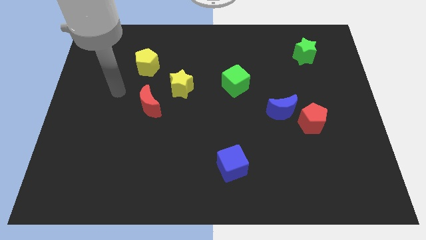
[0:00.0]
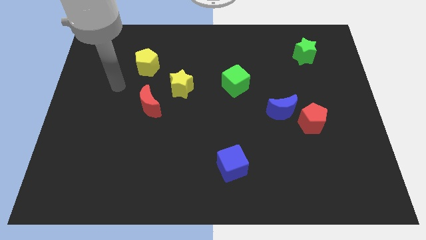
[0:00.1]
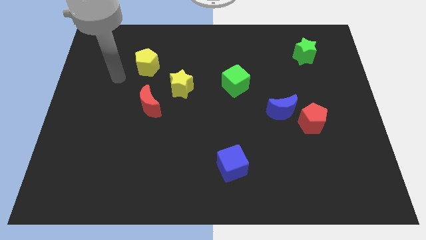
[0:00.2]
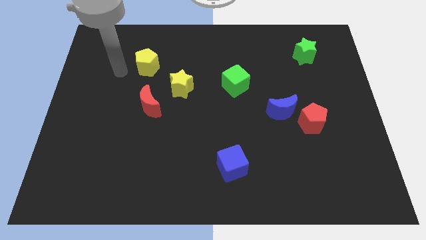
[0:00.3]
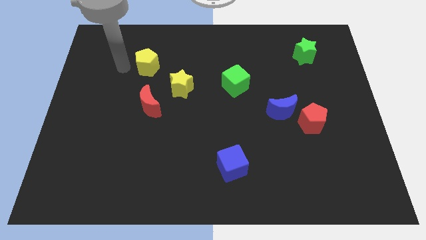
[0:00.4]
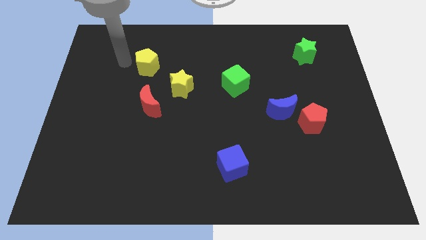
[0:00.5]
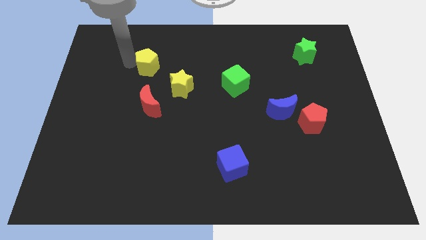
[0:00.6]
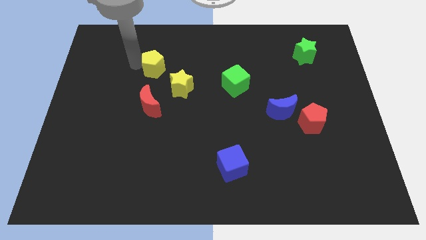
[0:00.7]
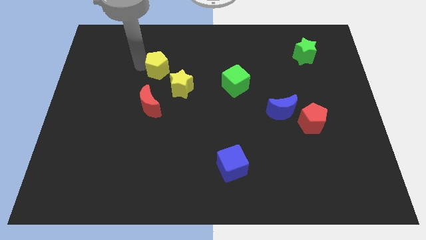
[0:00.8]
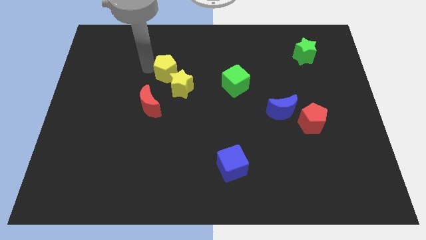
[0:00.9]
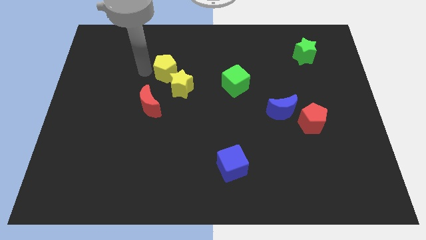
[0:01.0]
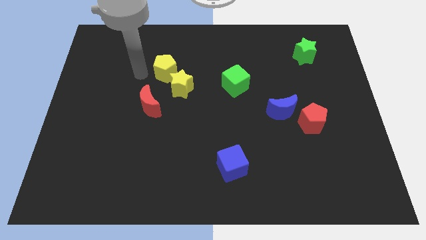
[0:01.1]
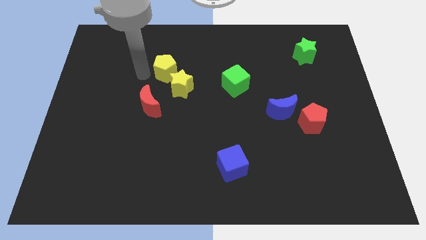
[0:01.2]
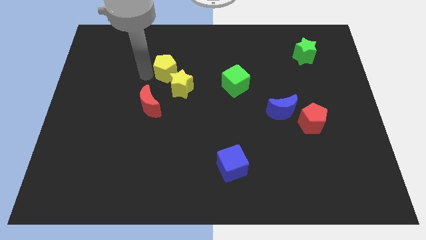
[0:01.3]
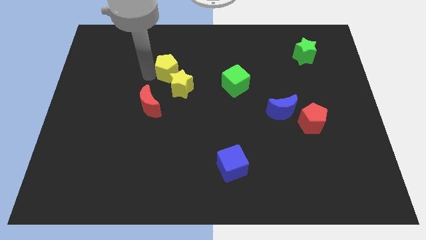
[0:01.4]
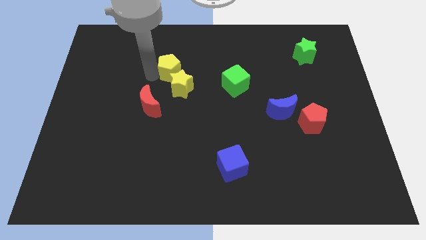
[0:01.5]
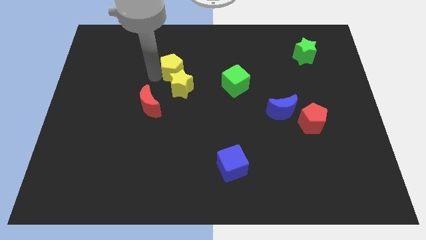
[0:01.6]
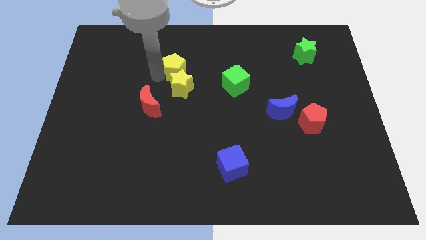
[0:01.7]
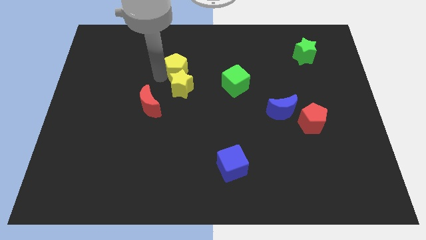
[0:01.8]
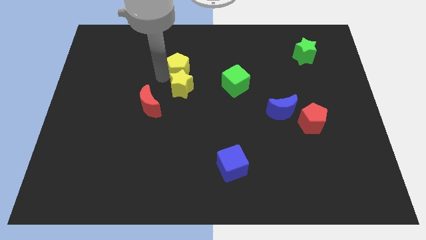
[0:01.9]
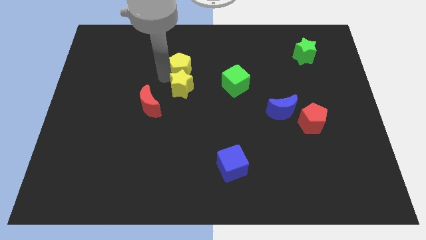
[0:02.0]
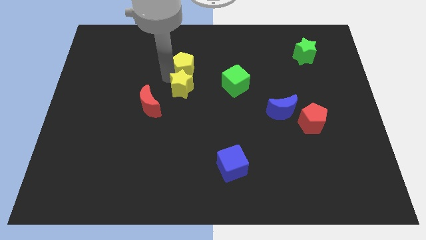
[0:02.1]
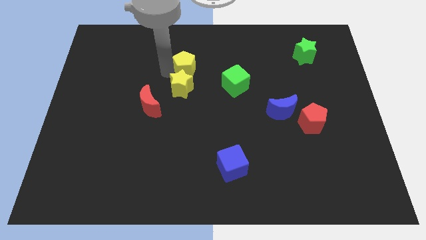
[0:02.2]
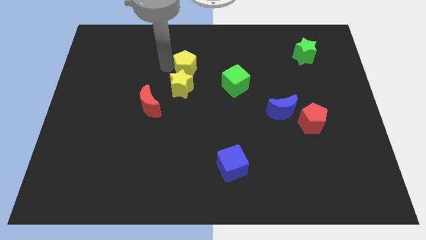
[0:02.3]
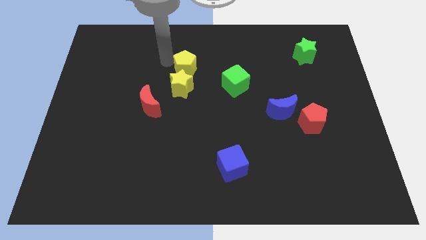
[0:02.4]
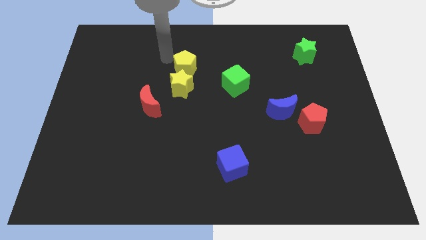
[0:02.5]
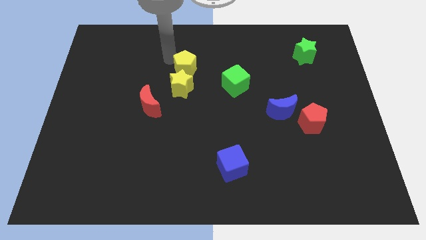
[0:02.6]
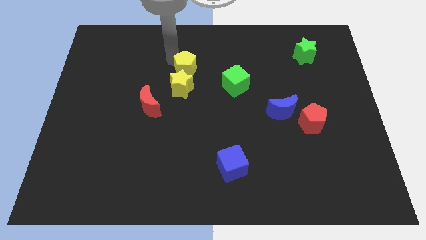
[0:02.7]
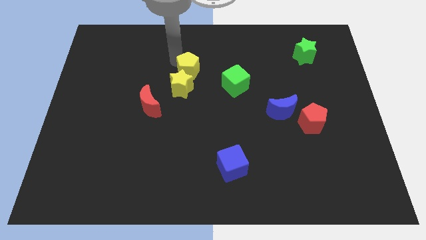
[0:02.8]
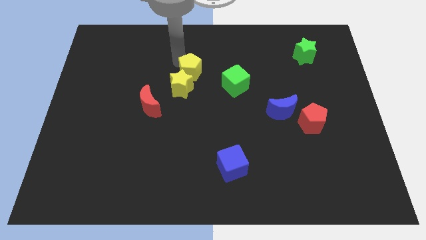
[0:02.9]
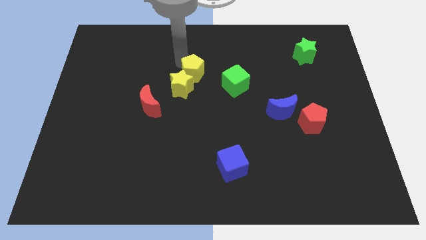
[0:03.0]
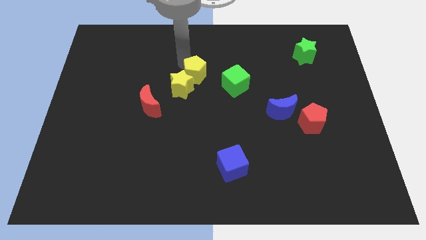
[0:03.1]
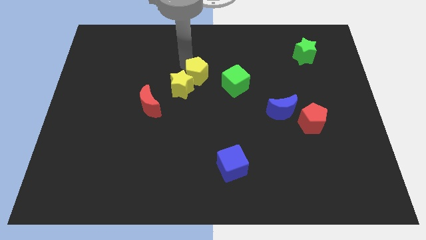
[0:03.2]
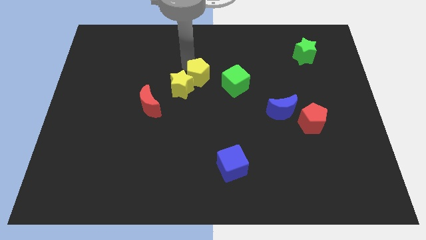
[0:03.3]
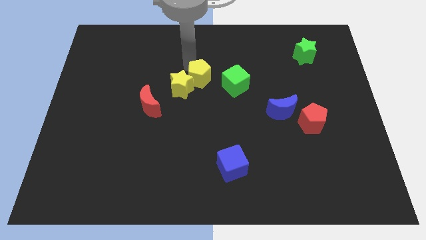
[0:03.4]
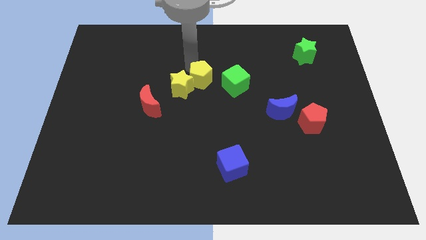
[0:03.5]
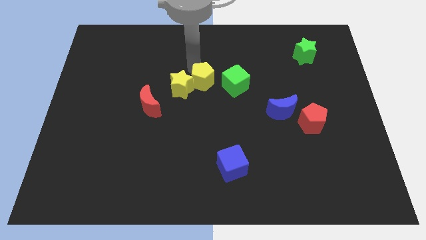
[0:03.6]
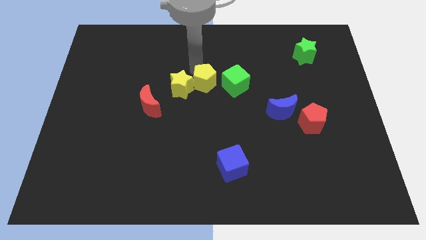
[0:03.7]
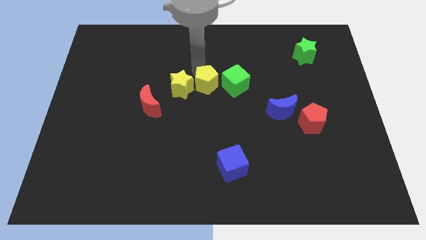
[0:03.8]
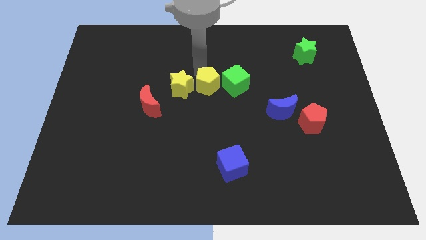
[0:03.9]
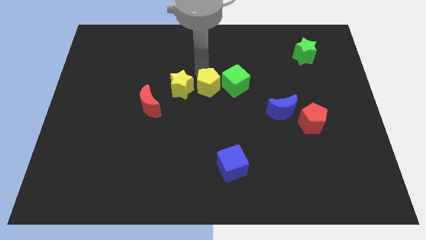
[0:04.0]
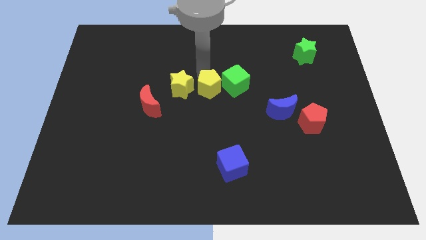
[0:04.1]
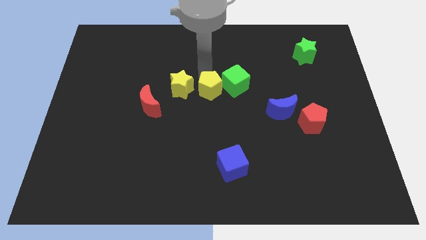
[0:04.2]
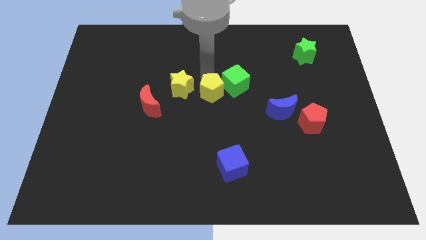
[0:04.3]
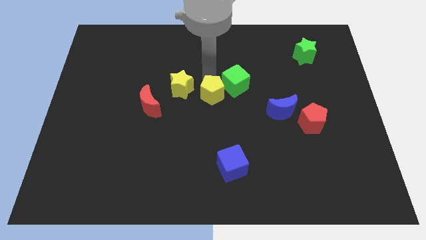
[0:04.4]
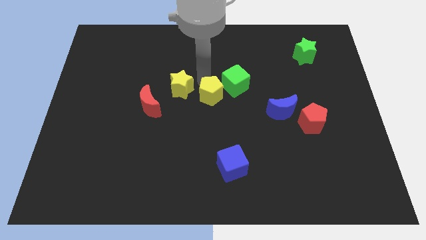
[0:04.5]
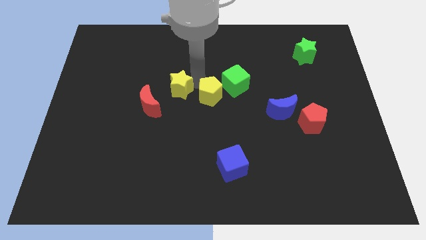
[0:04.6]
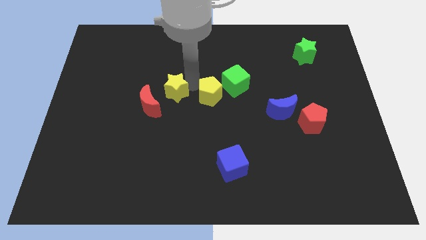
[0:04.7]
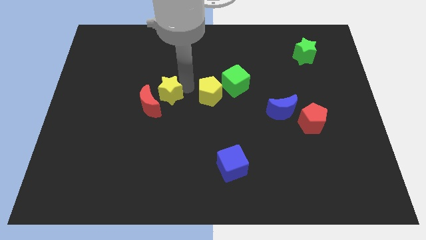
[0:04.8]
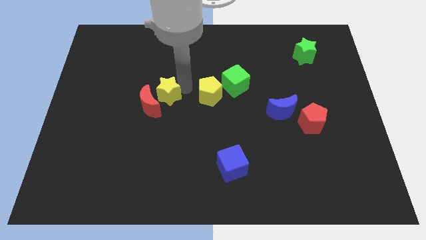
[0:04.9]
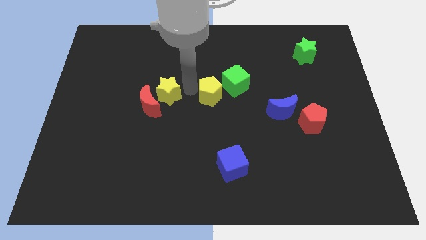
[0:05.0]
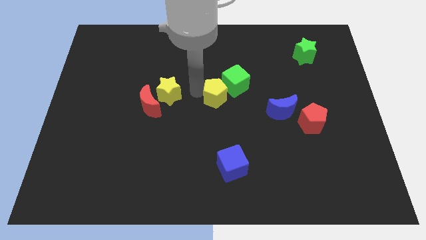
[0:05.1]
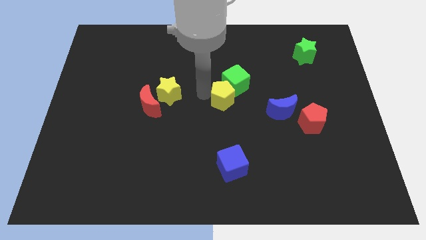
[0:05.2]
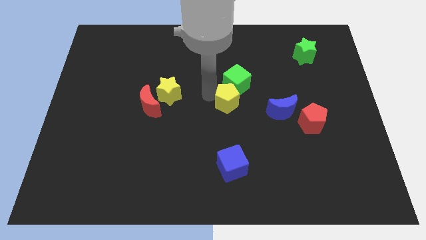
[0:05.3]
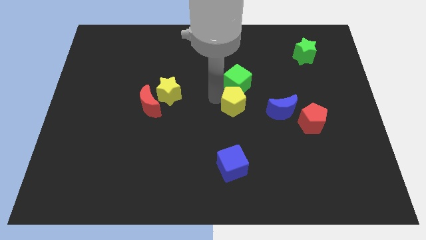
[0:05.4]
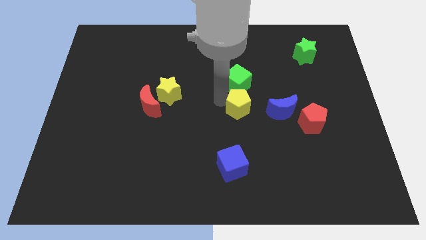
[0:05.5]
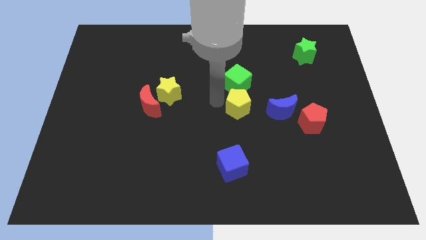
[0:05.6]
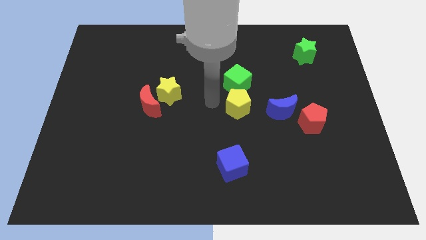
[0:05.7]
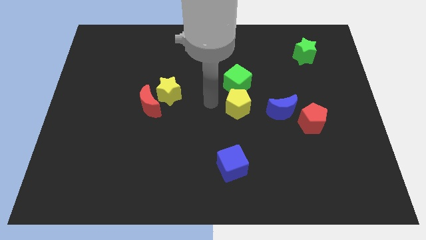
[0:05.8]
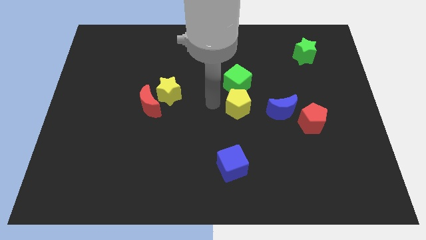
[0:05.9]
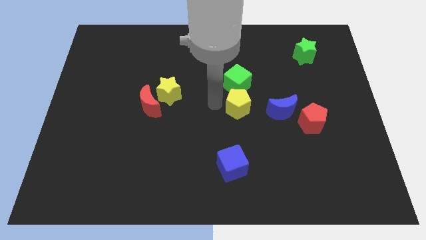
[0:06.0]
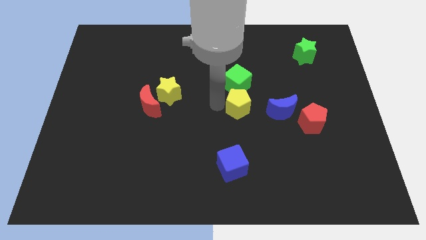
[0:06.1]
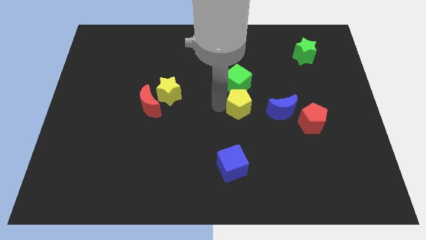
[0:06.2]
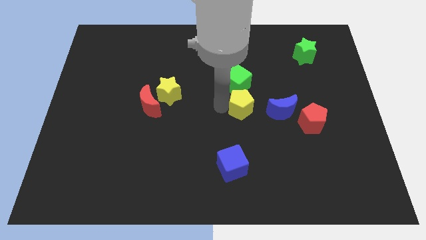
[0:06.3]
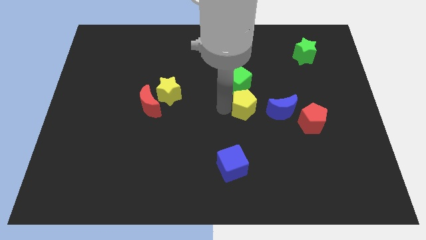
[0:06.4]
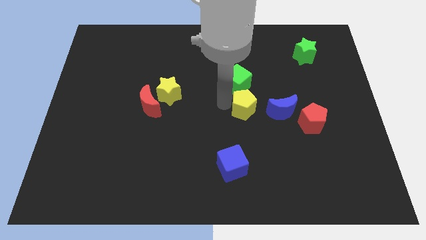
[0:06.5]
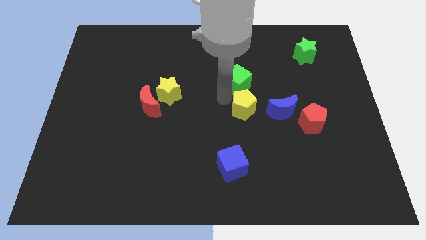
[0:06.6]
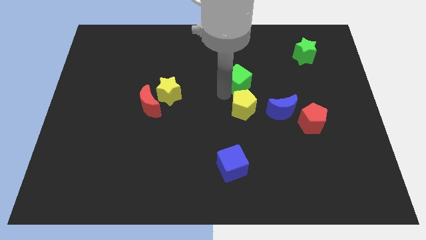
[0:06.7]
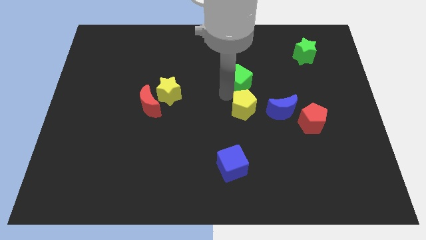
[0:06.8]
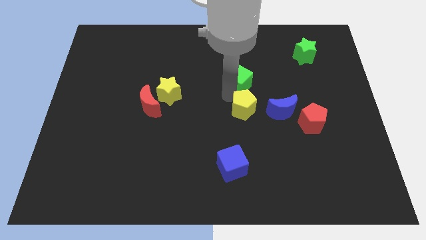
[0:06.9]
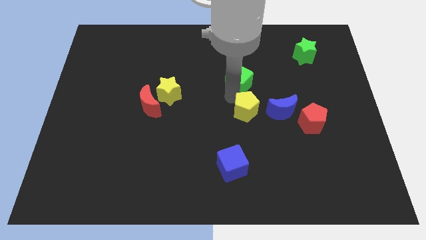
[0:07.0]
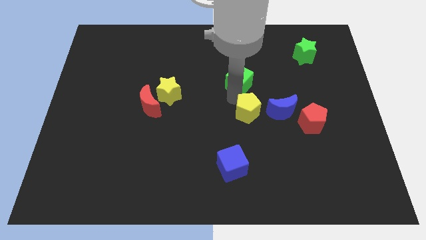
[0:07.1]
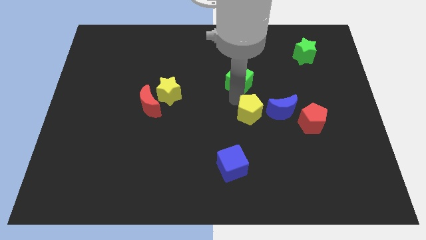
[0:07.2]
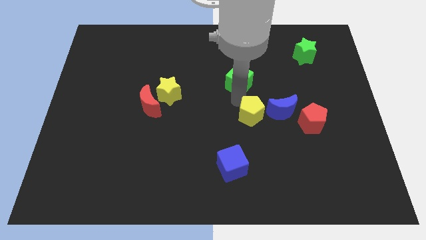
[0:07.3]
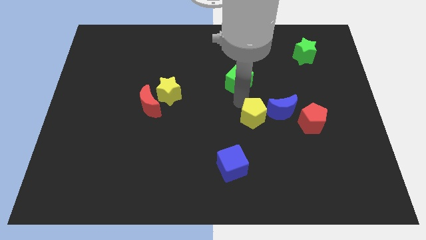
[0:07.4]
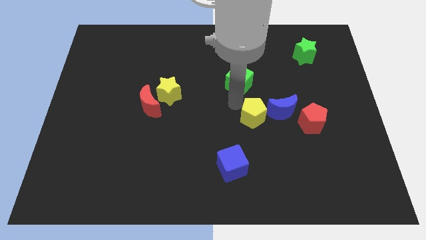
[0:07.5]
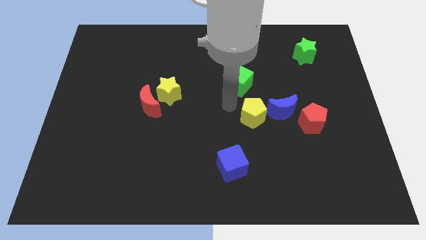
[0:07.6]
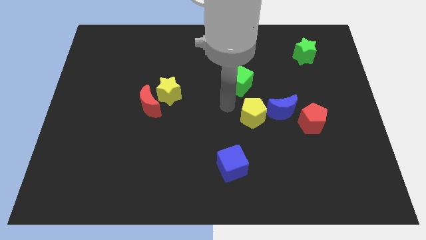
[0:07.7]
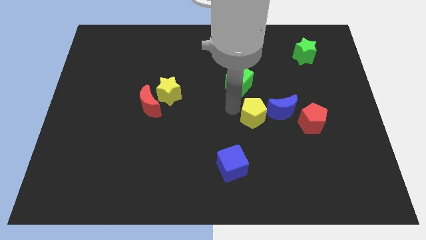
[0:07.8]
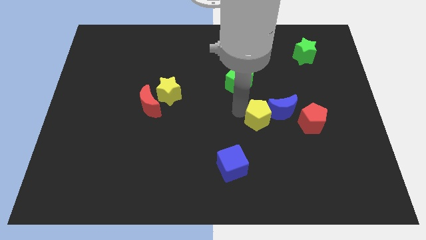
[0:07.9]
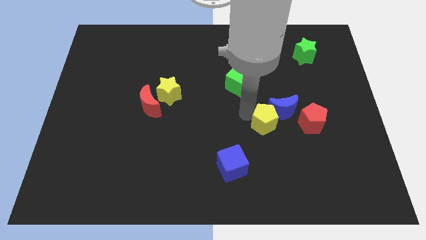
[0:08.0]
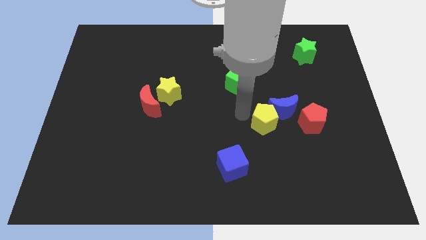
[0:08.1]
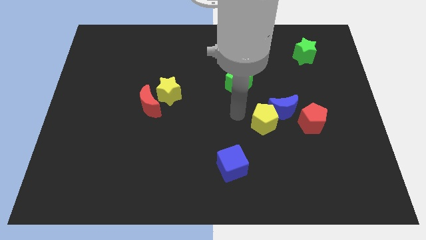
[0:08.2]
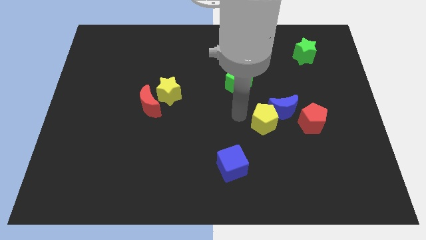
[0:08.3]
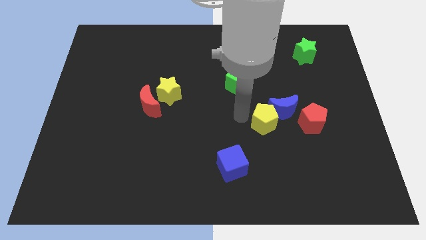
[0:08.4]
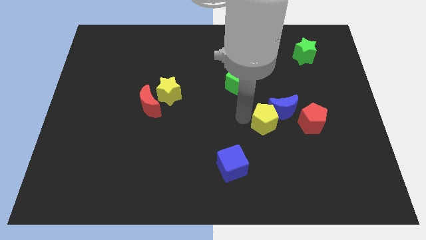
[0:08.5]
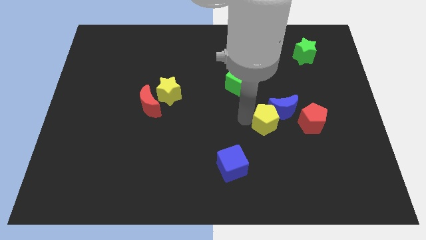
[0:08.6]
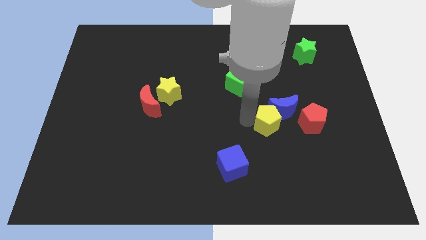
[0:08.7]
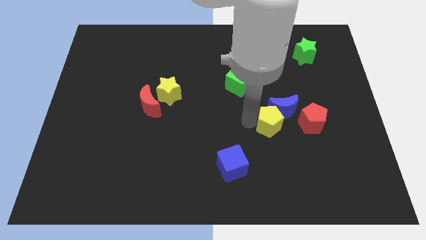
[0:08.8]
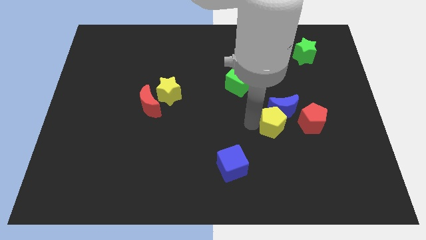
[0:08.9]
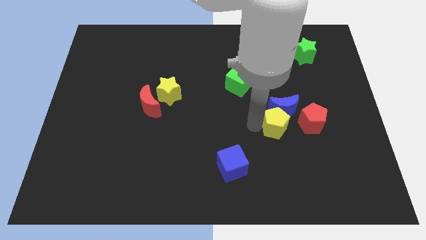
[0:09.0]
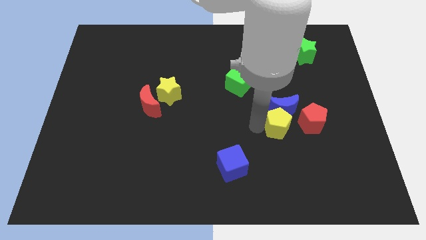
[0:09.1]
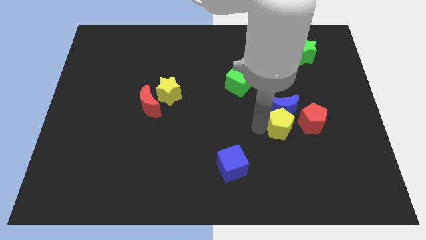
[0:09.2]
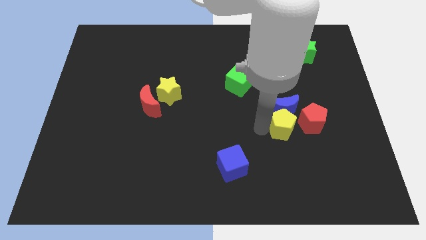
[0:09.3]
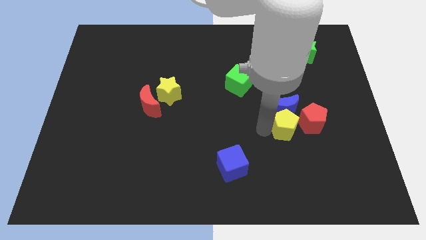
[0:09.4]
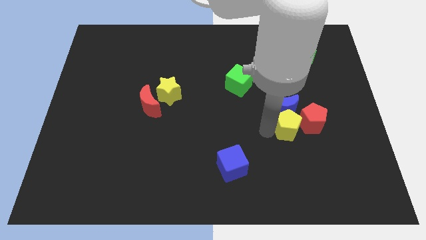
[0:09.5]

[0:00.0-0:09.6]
put the yellow pentagon towards the red pentagon
